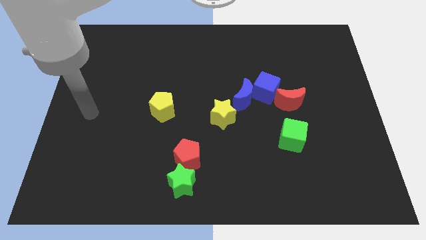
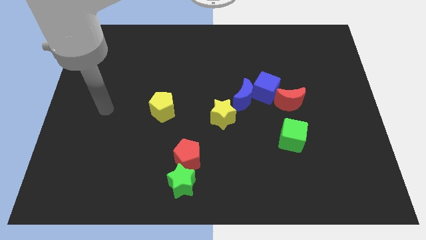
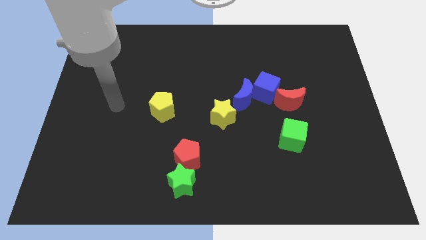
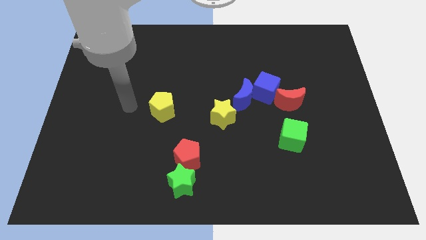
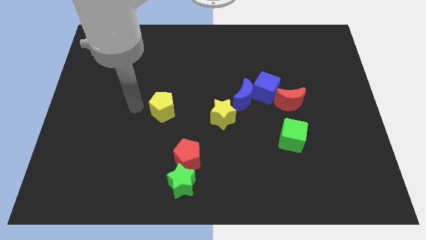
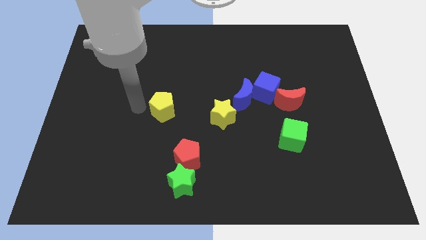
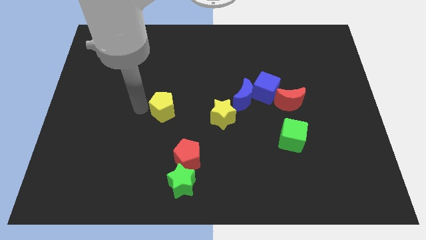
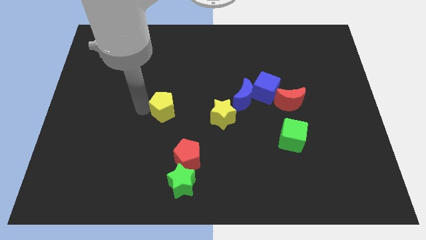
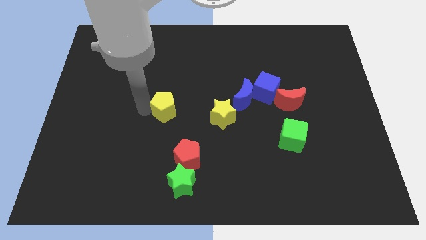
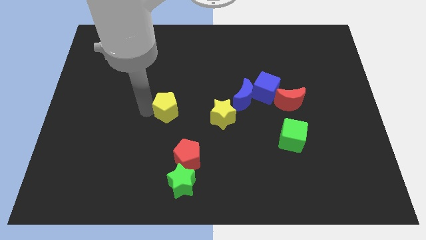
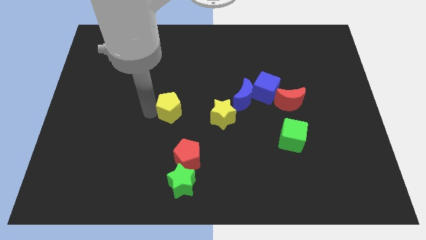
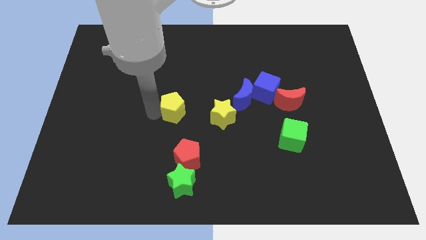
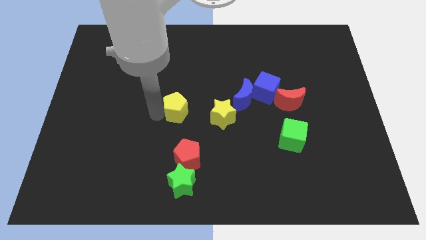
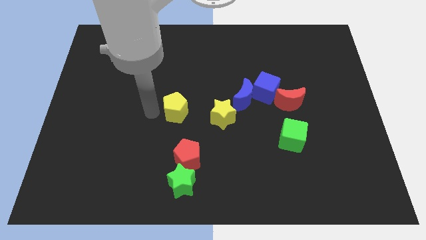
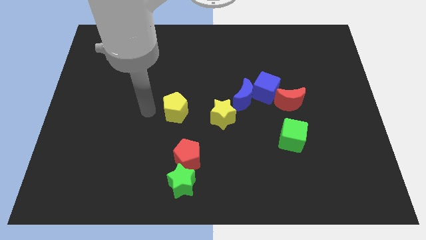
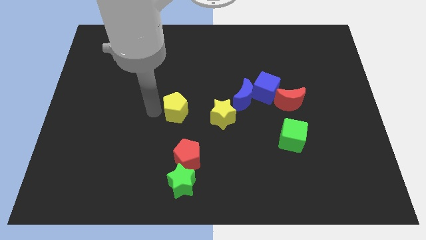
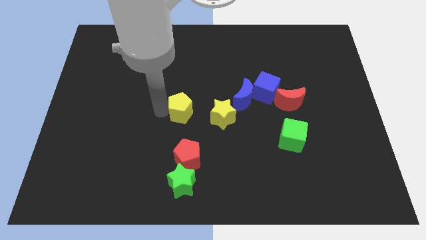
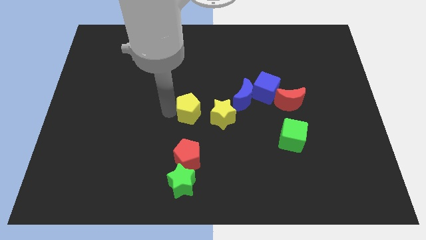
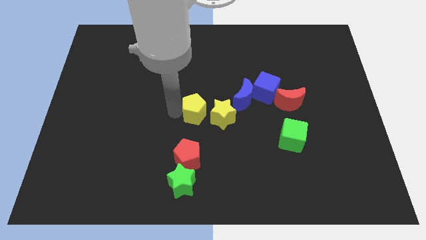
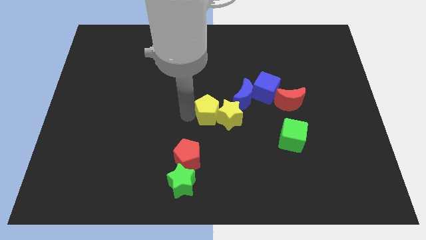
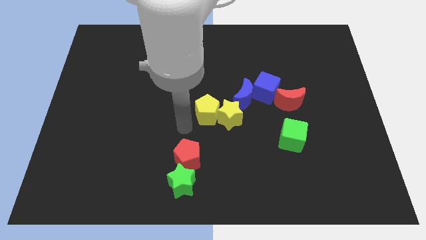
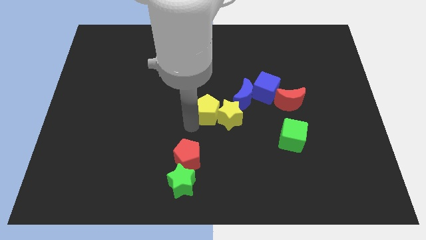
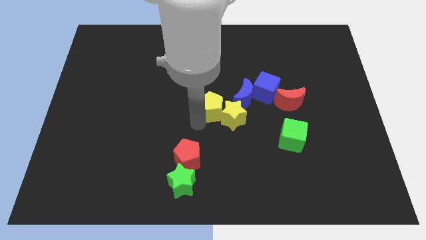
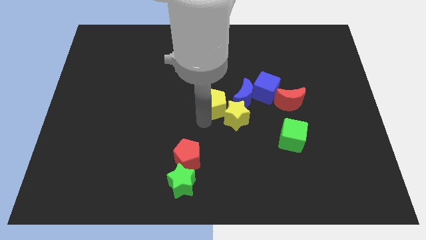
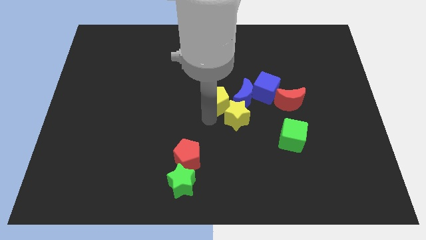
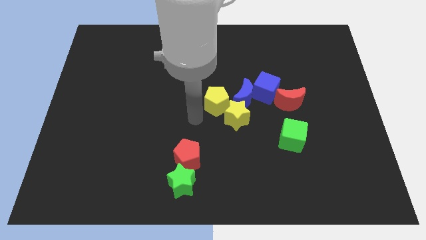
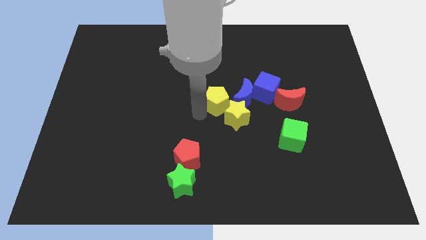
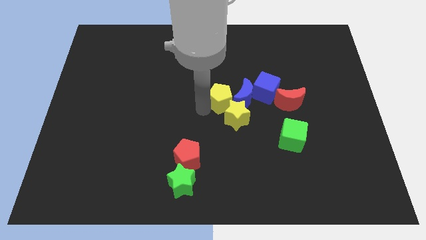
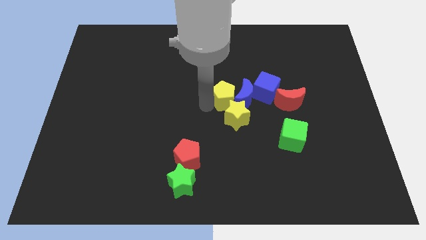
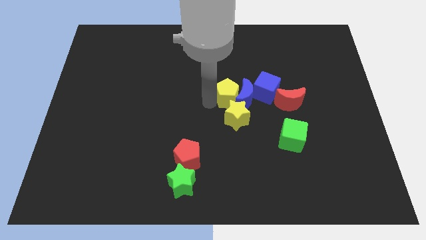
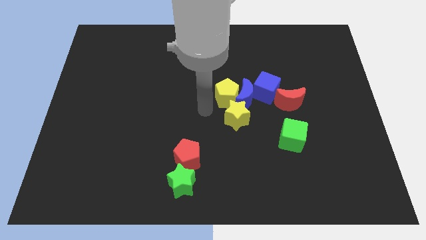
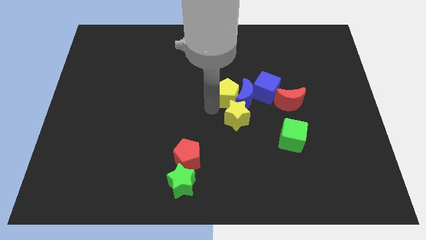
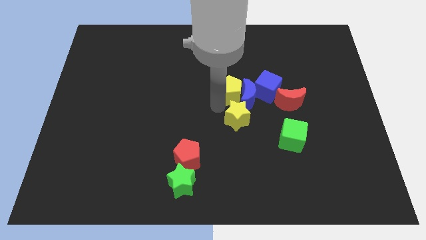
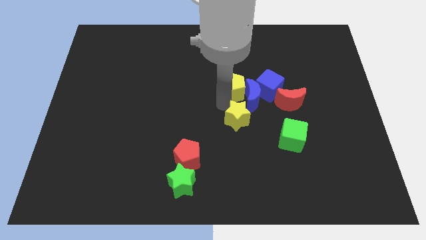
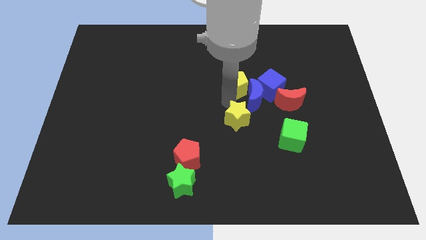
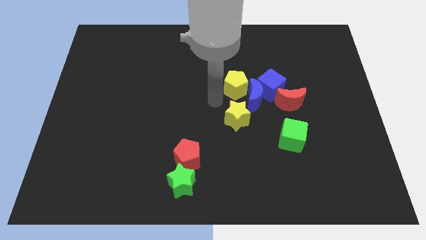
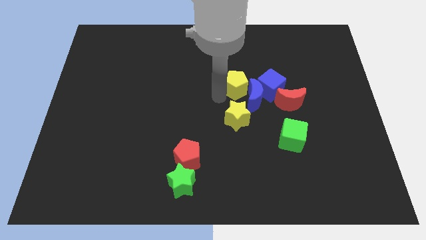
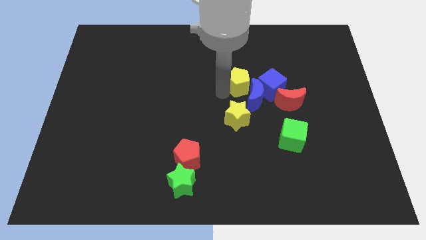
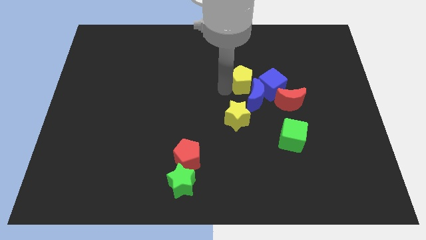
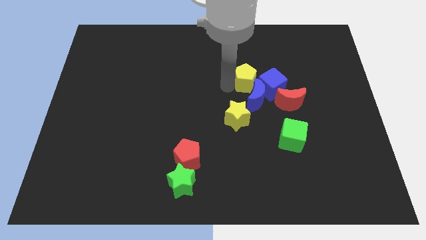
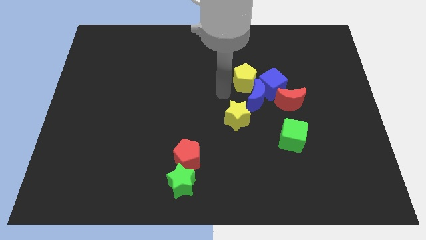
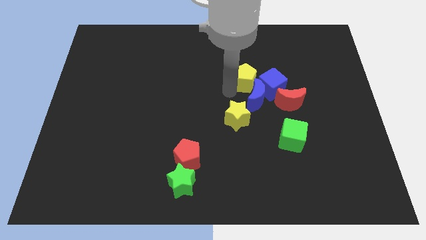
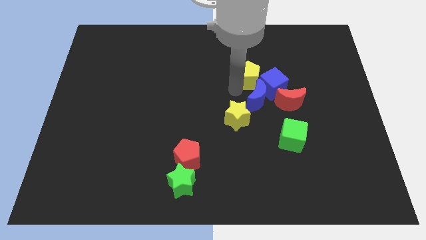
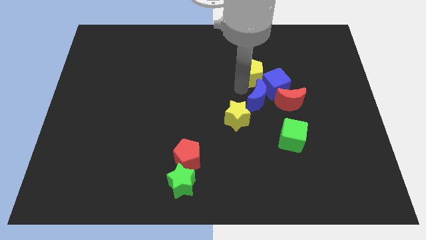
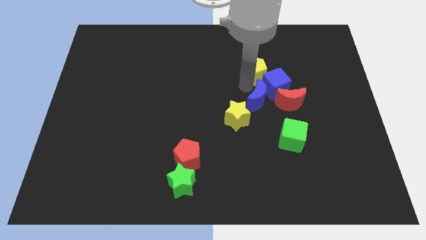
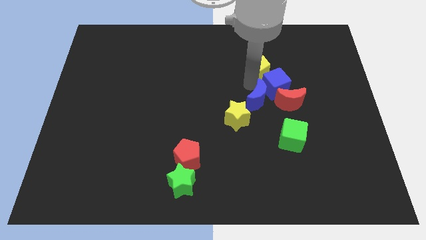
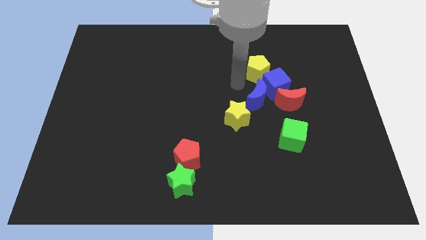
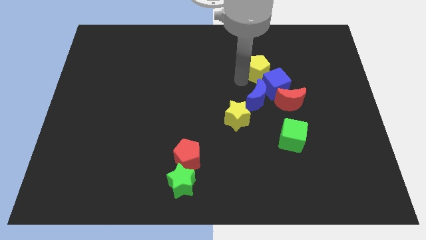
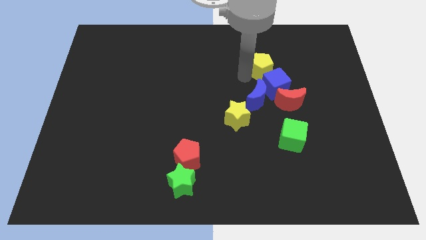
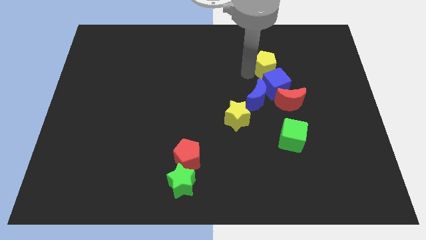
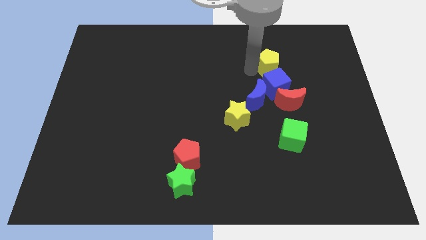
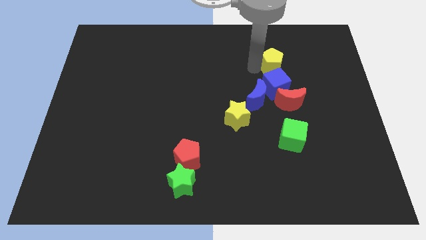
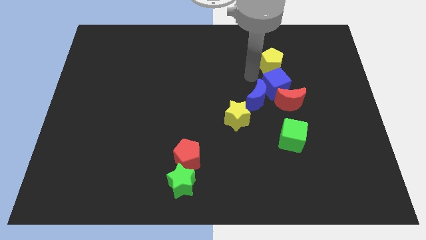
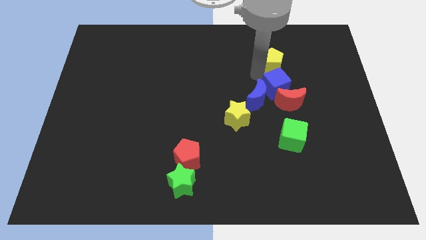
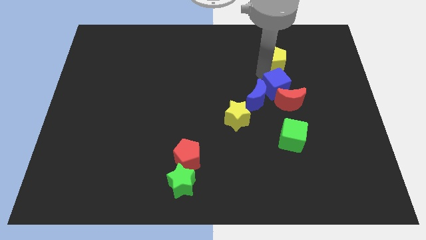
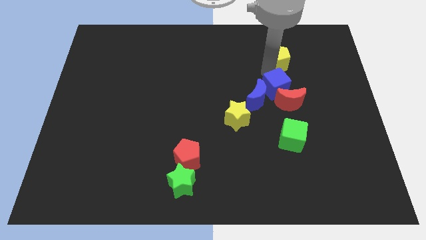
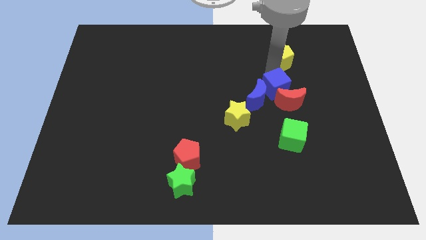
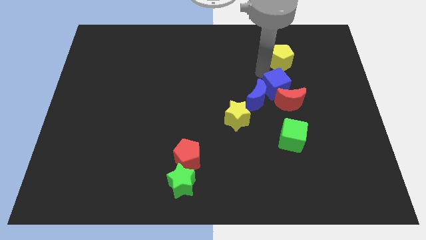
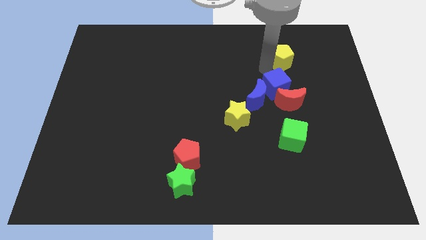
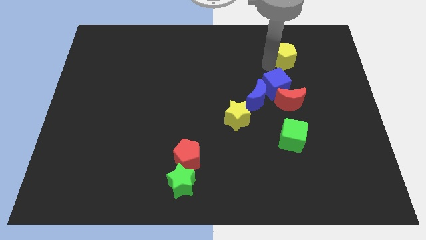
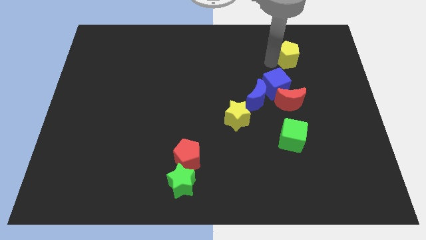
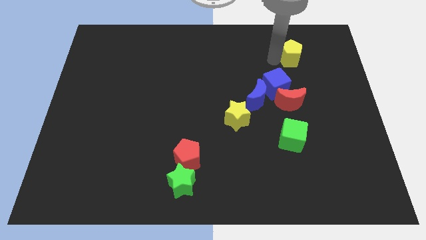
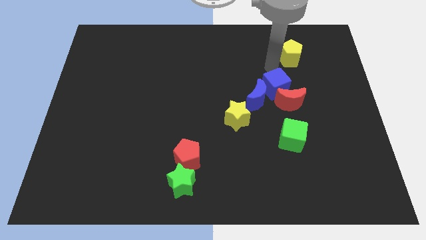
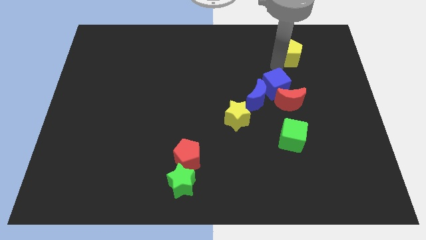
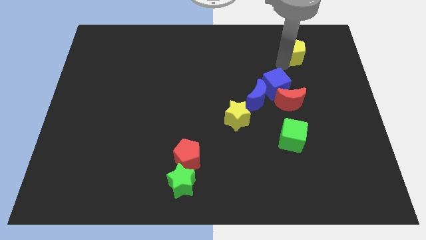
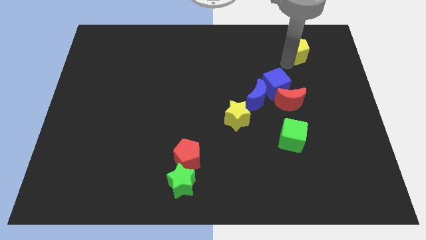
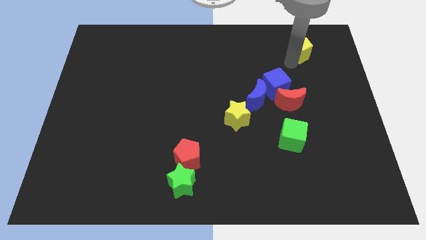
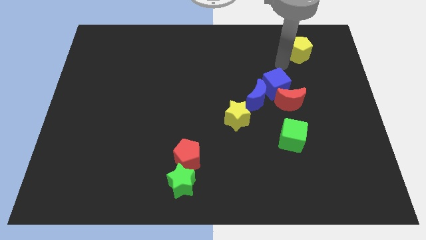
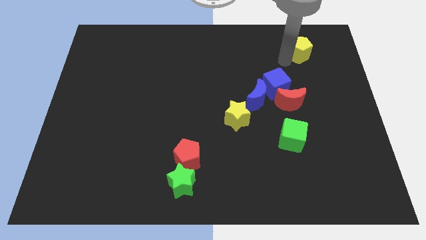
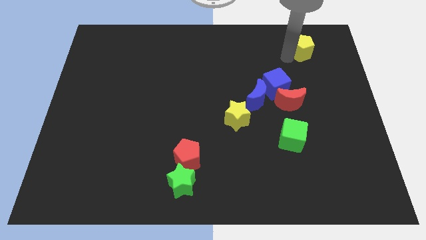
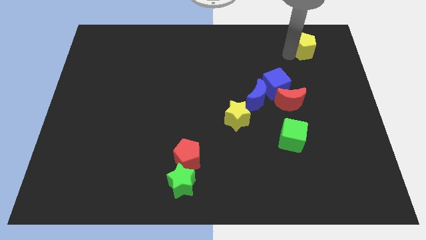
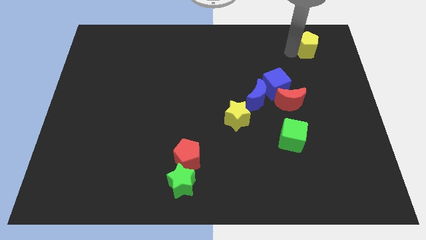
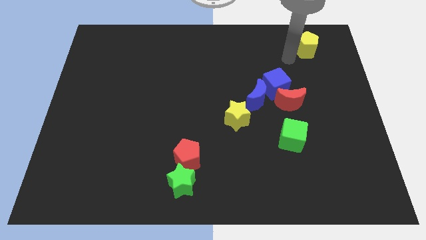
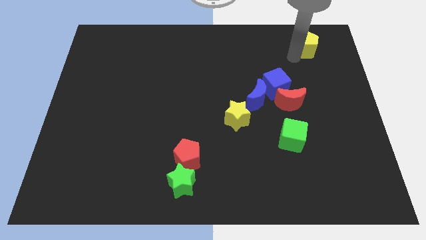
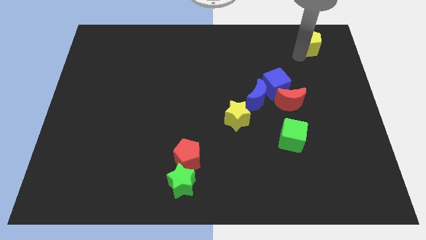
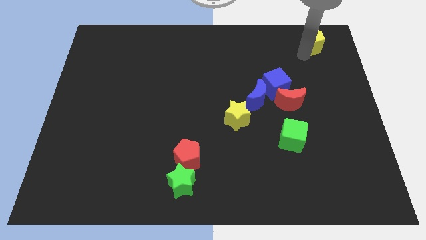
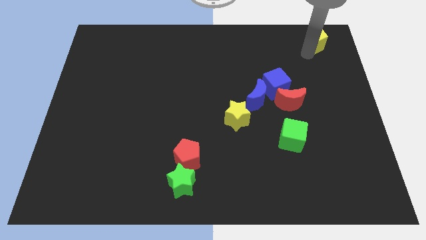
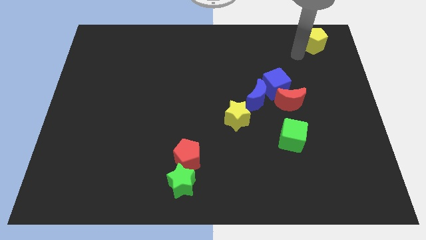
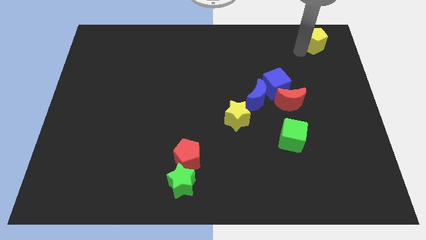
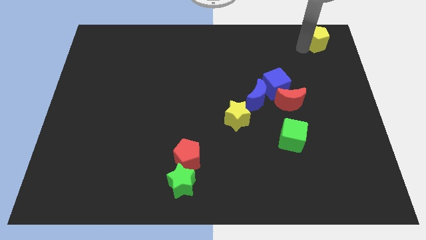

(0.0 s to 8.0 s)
move the yellow pentagon to the top right
